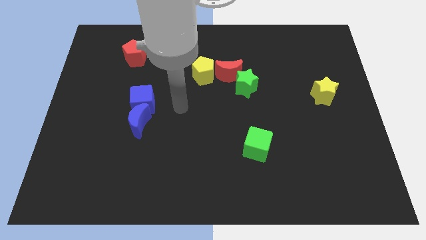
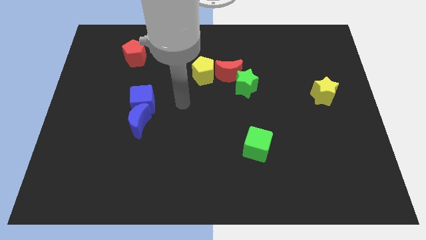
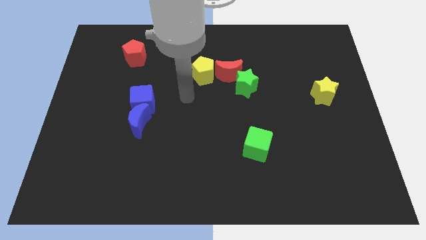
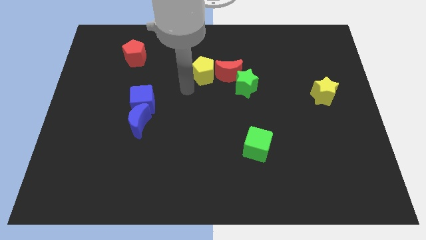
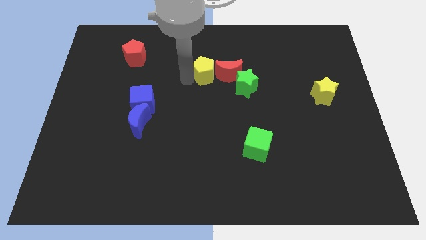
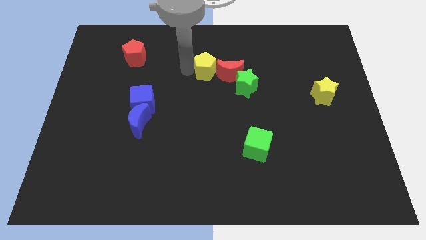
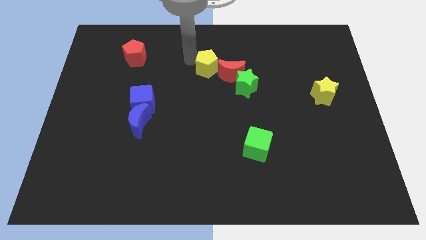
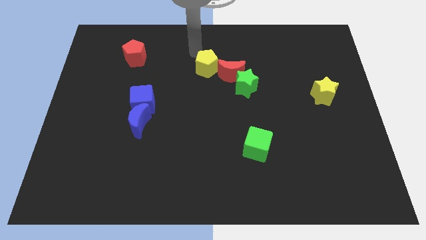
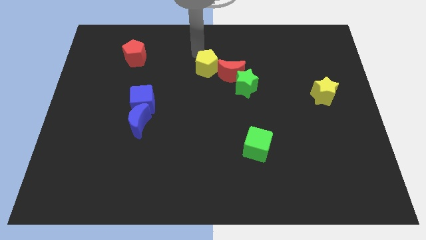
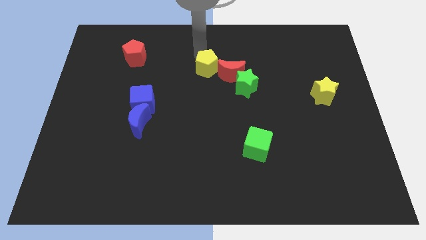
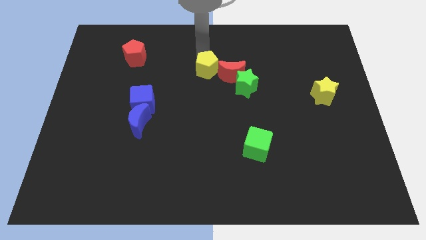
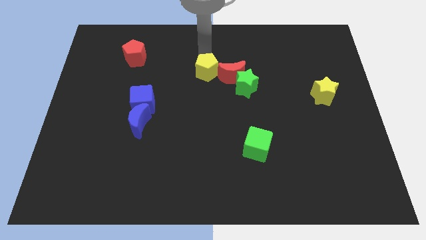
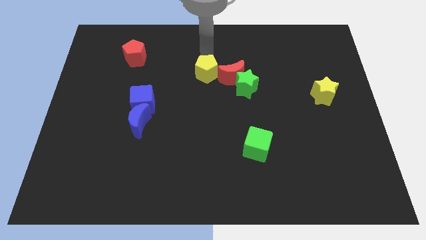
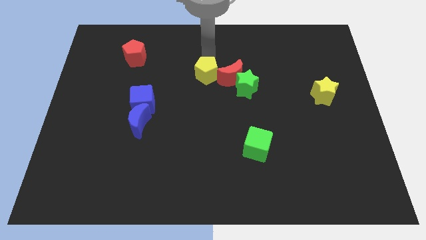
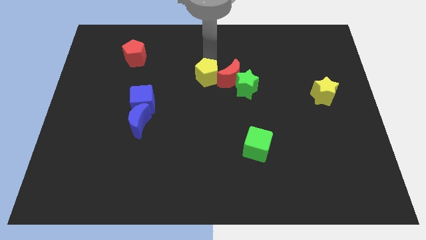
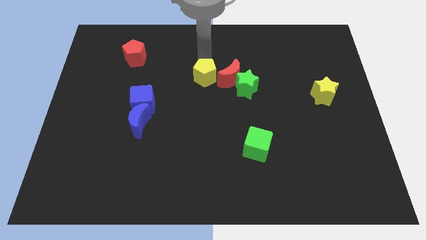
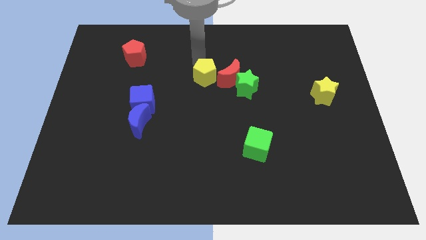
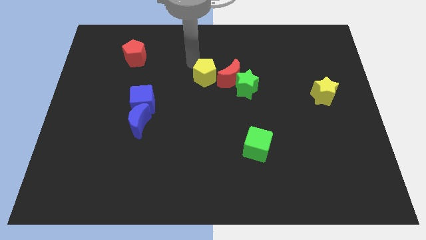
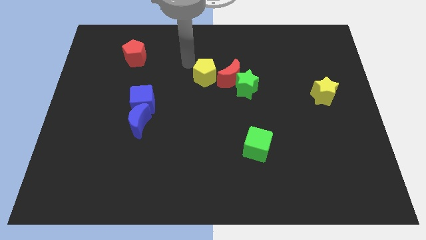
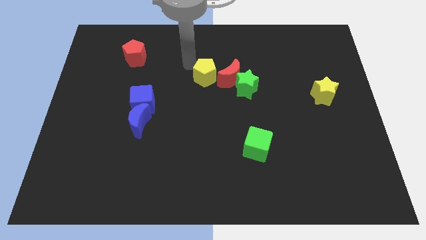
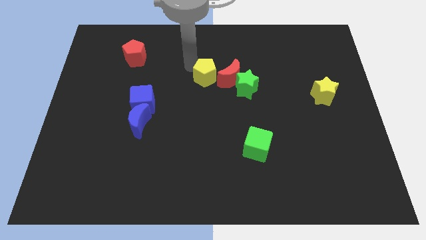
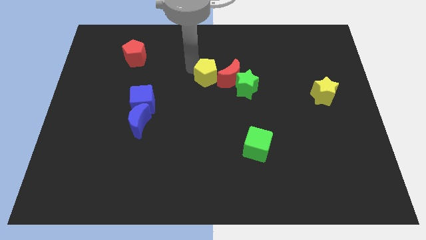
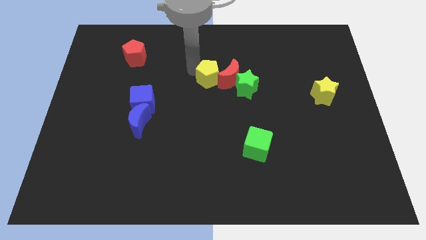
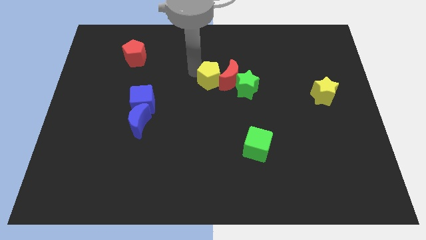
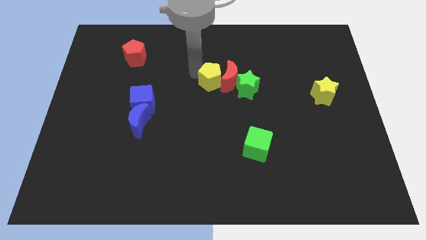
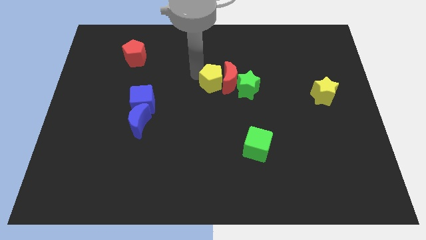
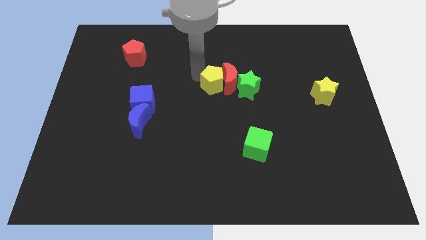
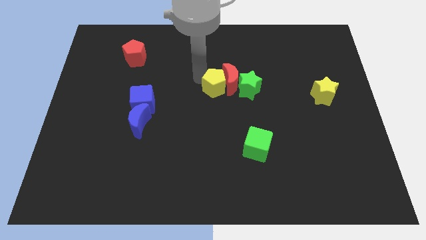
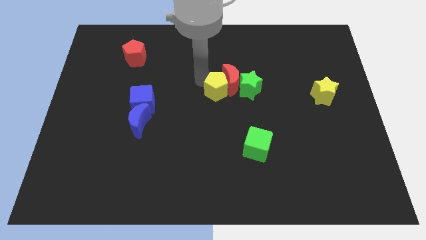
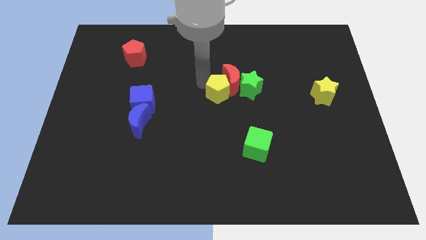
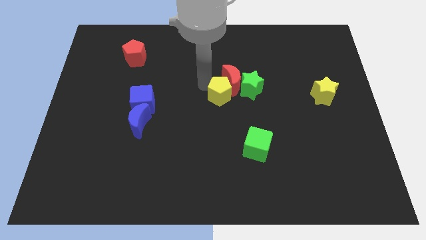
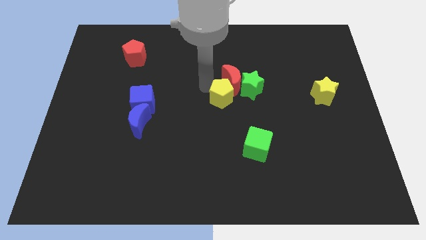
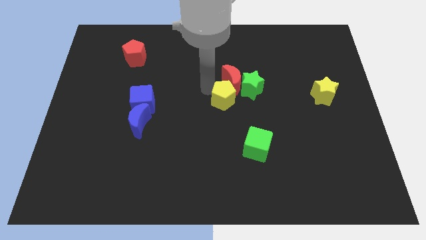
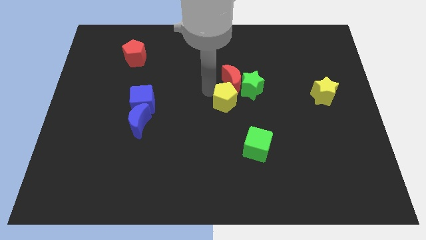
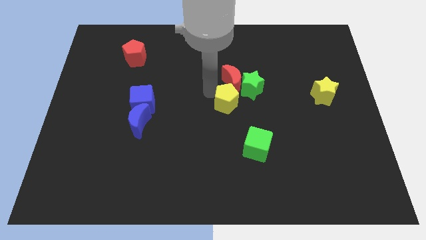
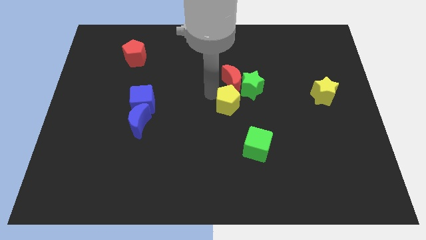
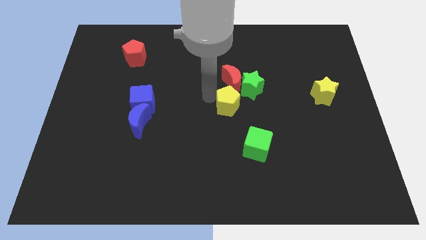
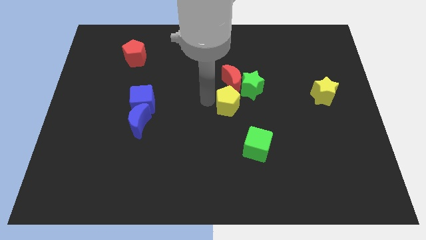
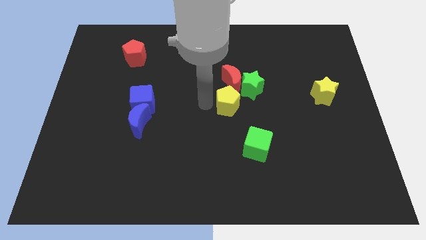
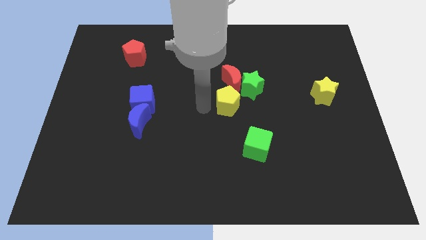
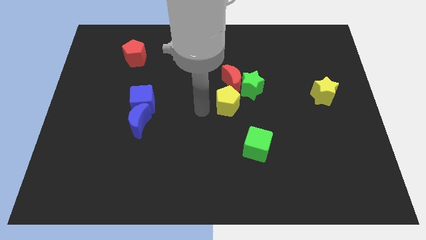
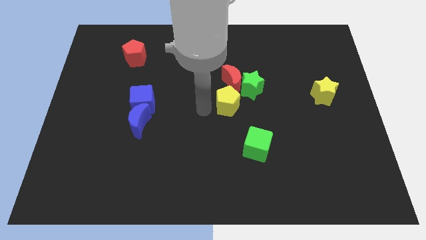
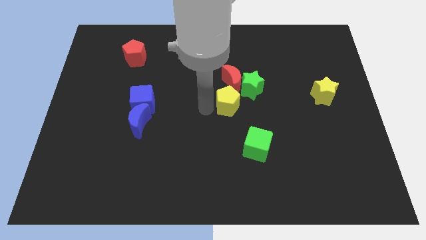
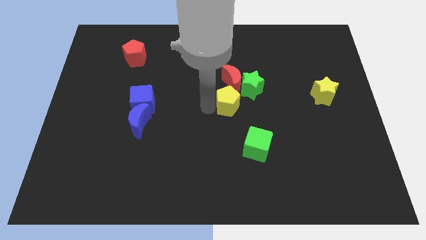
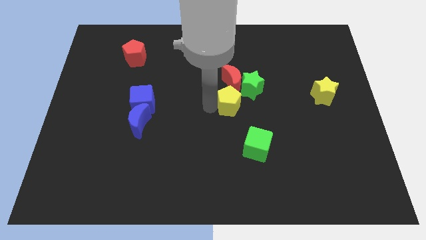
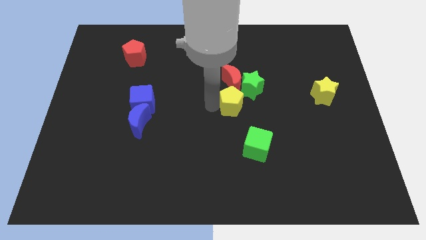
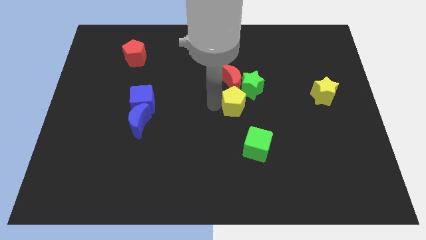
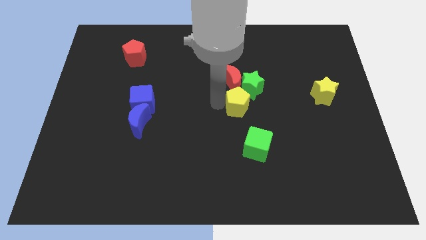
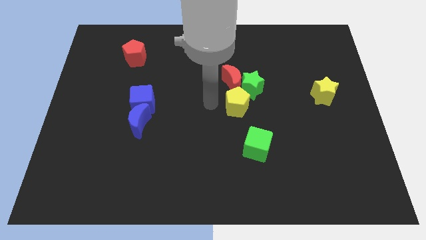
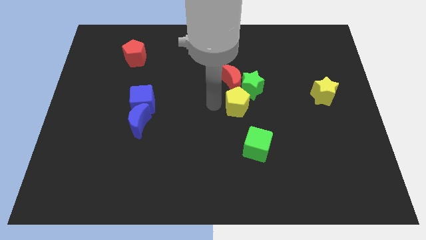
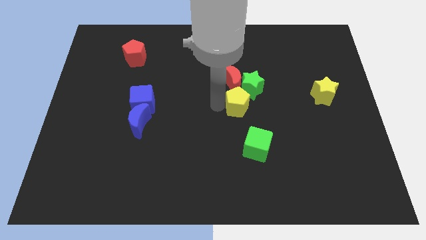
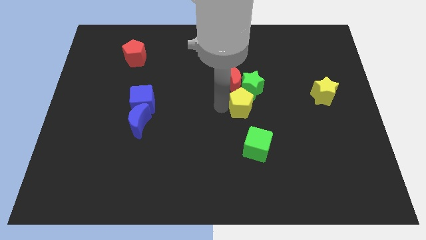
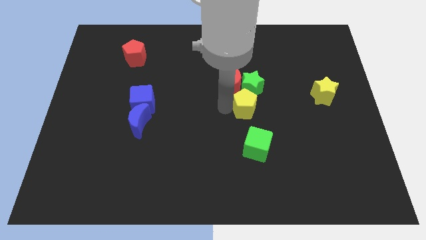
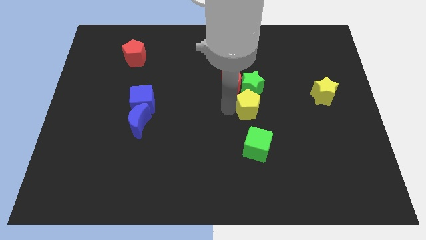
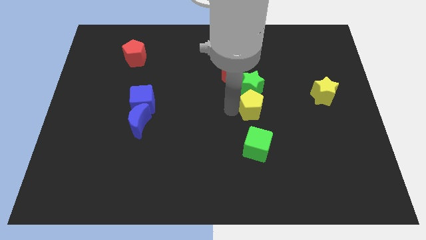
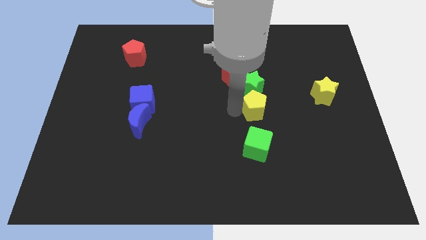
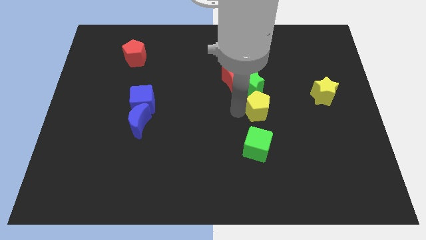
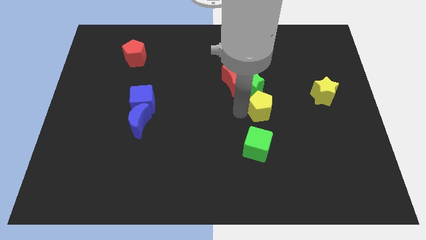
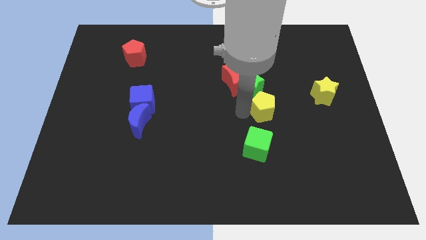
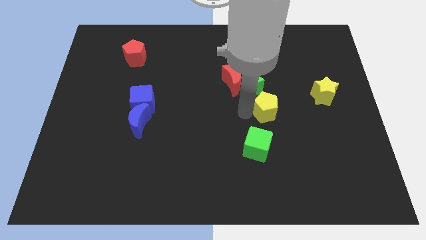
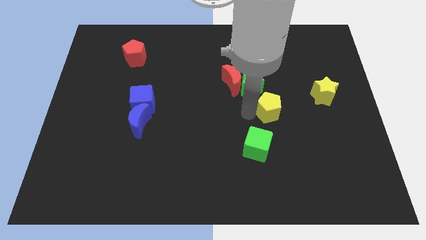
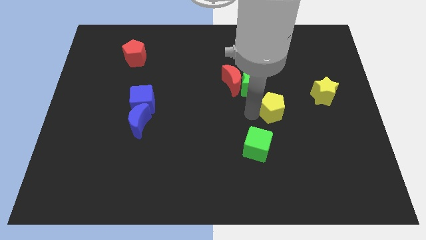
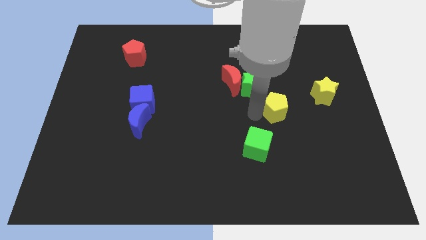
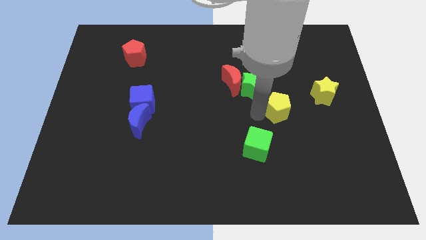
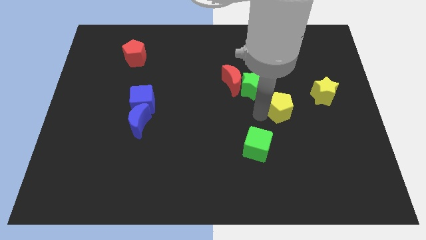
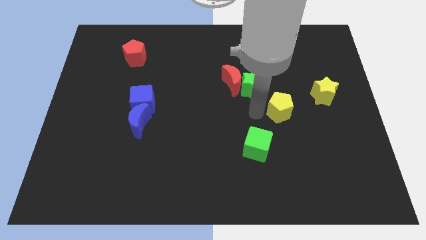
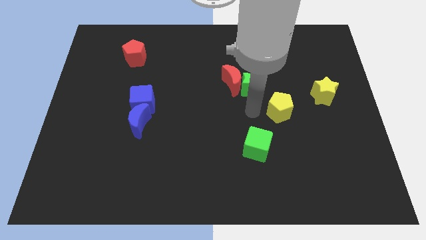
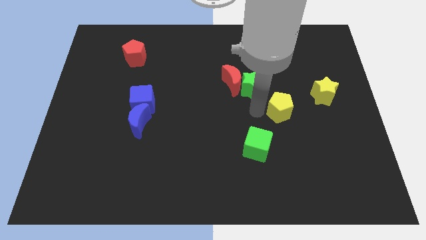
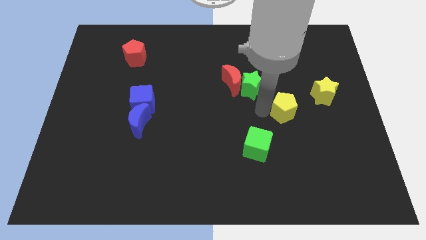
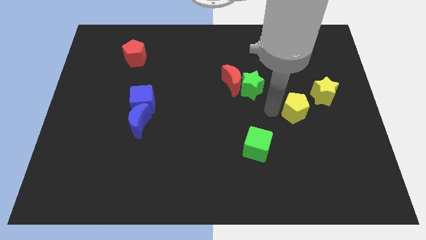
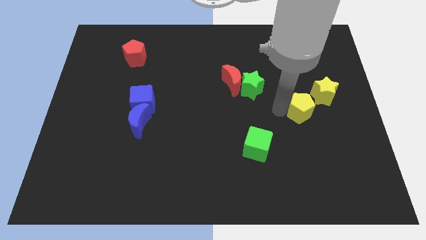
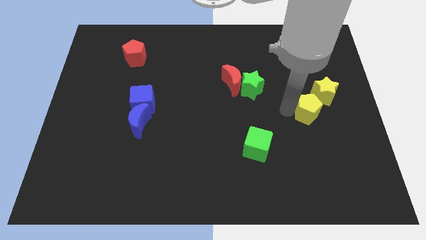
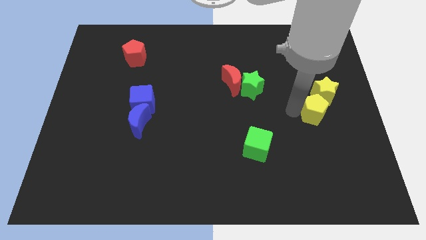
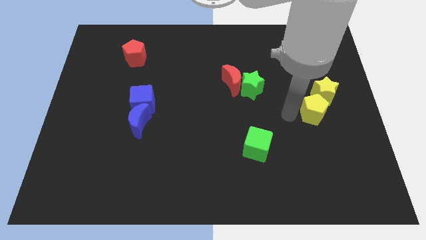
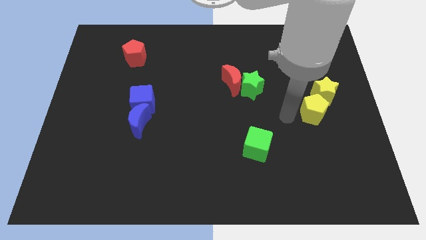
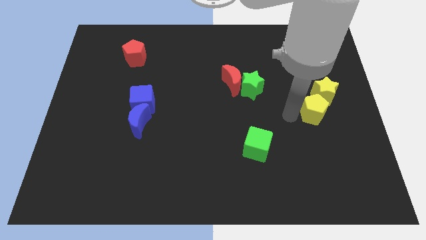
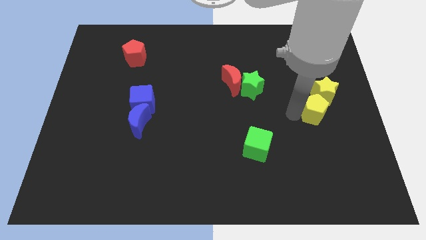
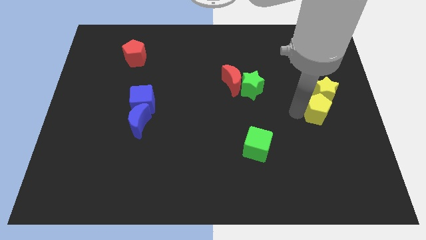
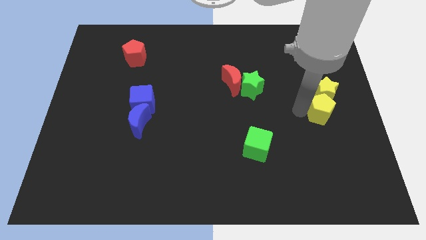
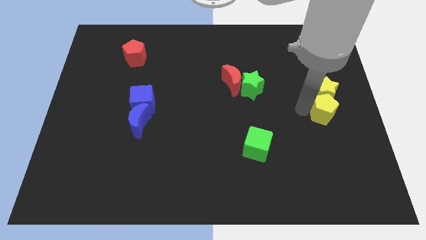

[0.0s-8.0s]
move the yellow pentagon to the right side
